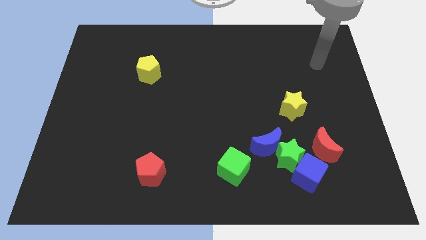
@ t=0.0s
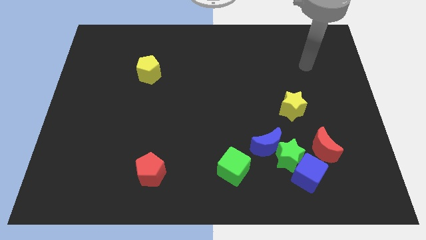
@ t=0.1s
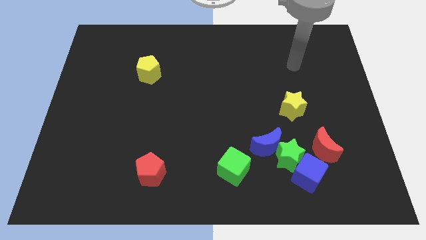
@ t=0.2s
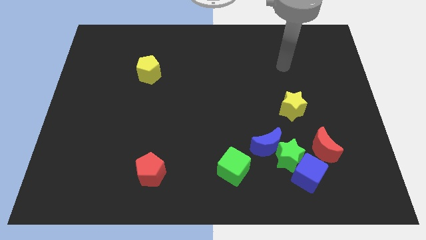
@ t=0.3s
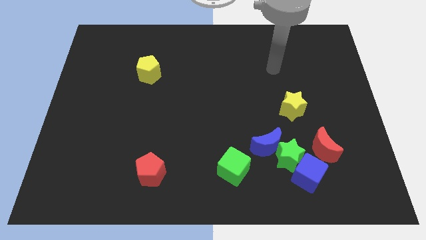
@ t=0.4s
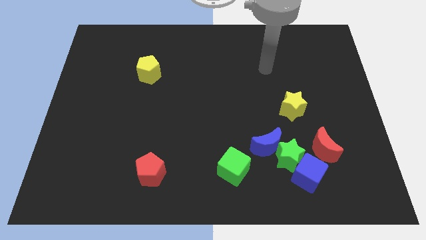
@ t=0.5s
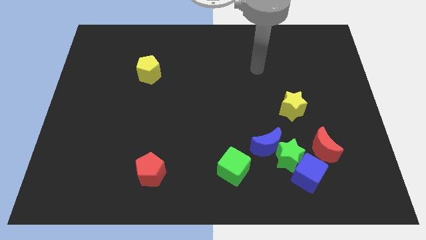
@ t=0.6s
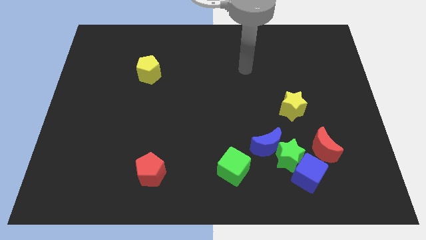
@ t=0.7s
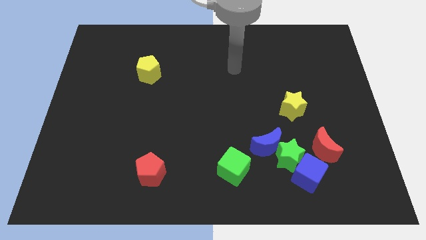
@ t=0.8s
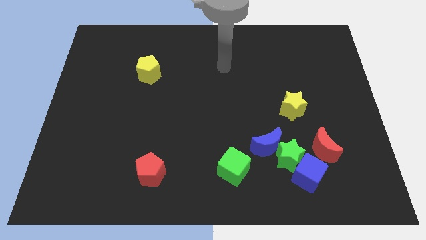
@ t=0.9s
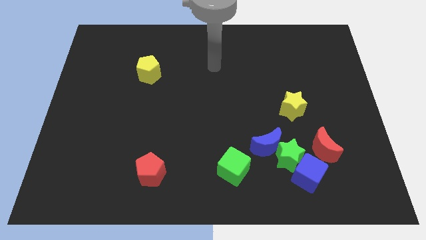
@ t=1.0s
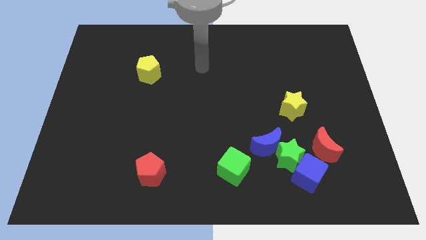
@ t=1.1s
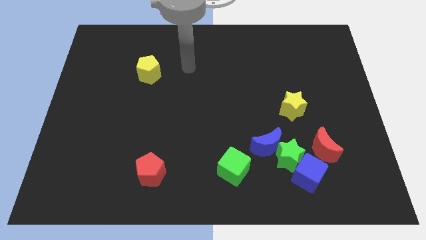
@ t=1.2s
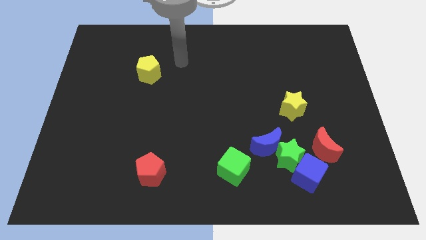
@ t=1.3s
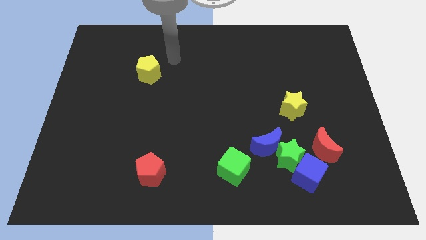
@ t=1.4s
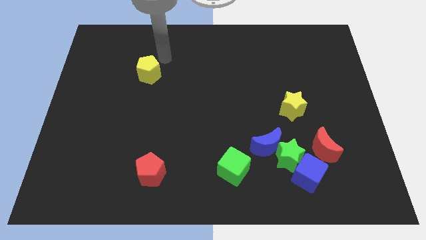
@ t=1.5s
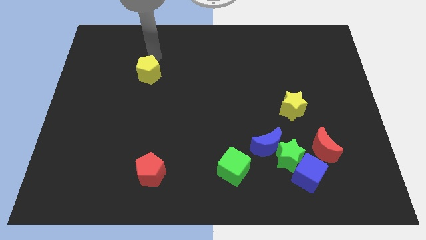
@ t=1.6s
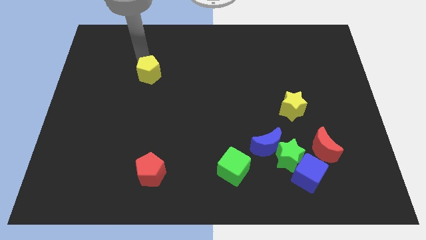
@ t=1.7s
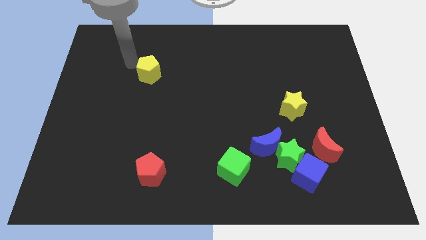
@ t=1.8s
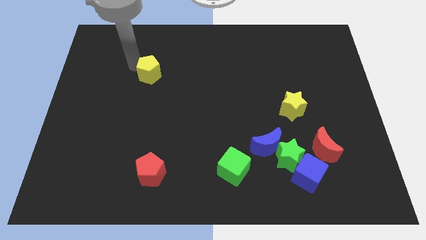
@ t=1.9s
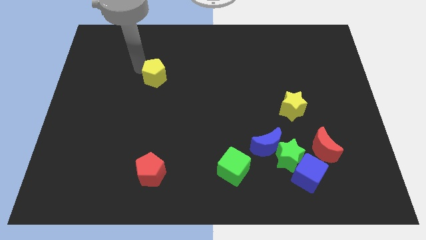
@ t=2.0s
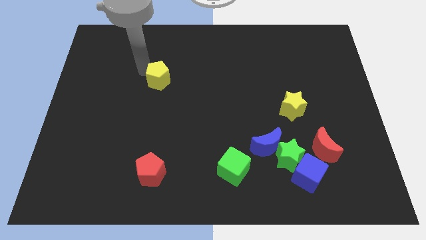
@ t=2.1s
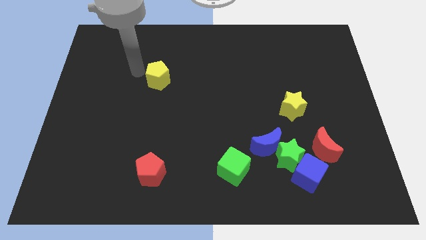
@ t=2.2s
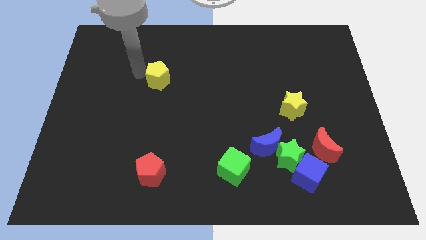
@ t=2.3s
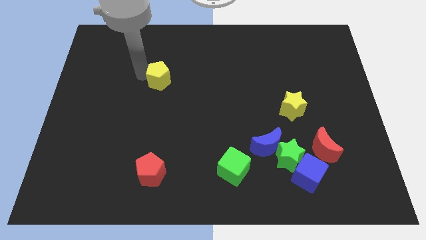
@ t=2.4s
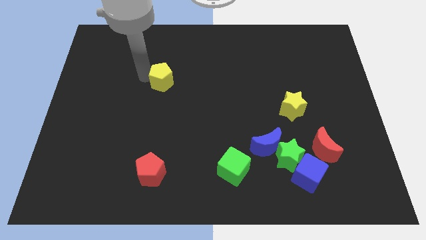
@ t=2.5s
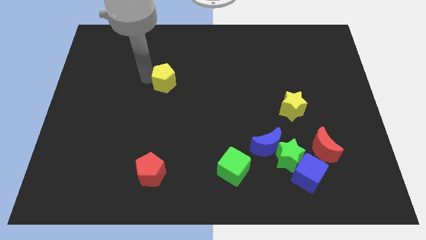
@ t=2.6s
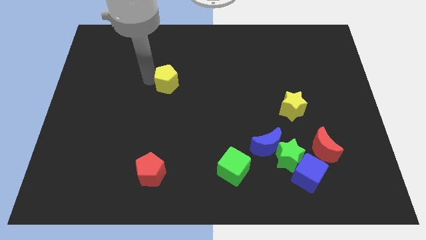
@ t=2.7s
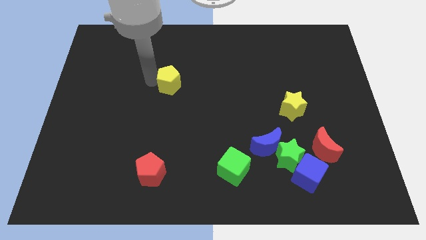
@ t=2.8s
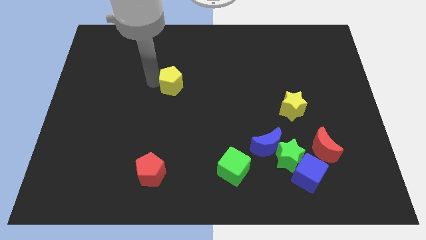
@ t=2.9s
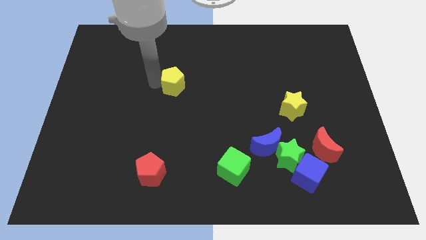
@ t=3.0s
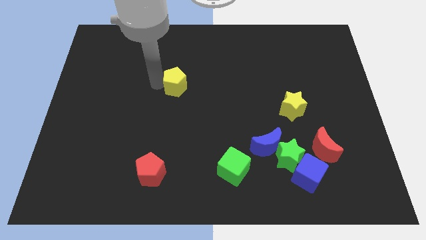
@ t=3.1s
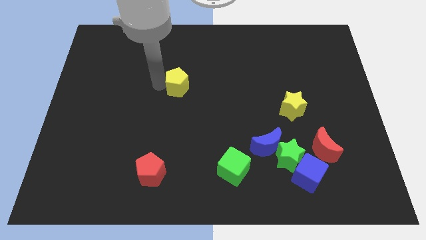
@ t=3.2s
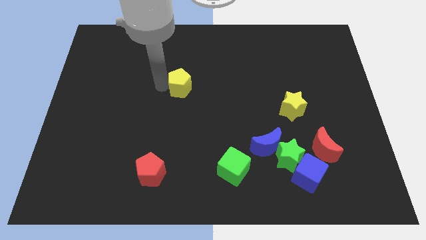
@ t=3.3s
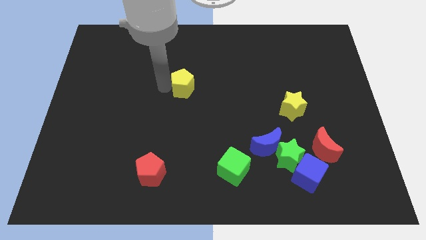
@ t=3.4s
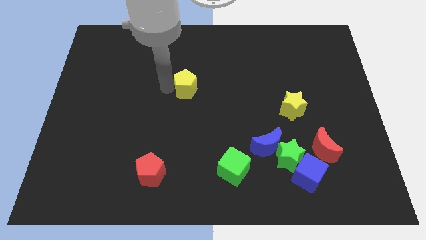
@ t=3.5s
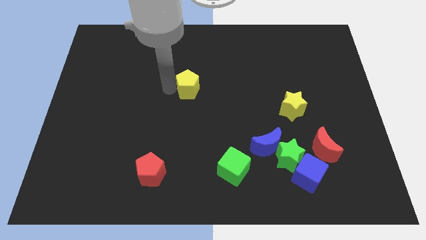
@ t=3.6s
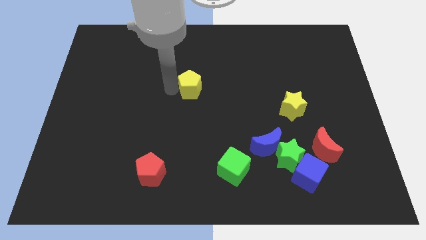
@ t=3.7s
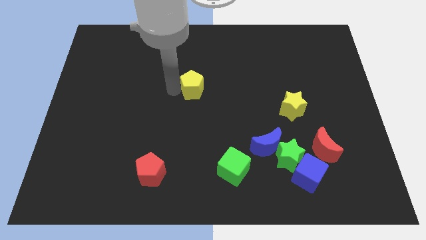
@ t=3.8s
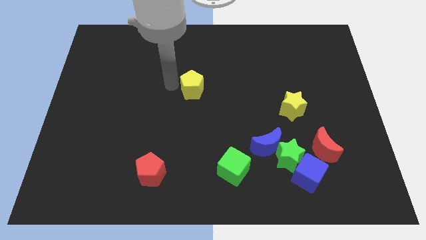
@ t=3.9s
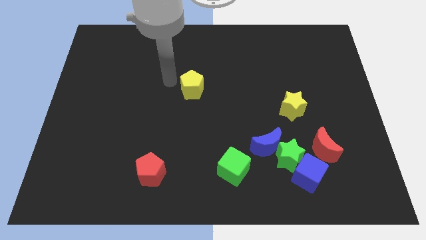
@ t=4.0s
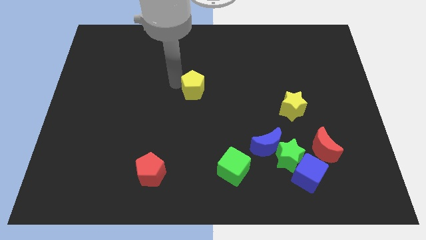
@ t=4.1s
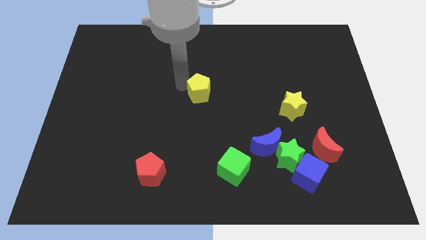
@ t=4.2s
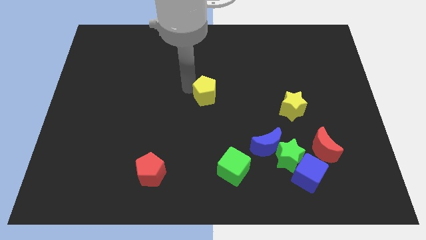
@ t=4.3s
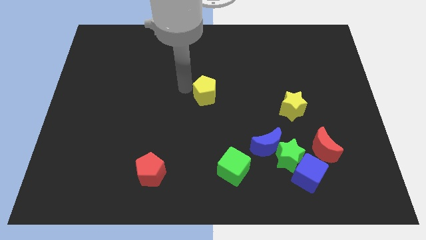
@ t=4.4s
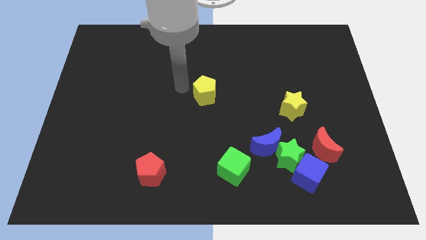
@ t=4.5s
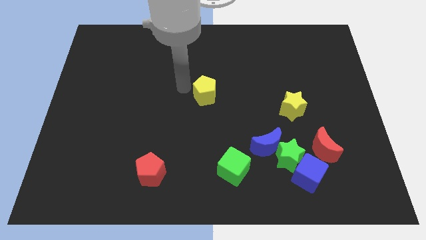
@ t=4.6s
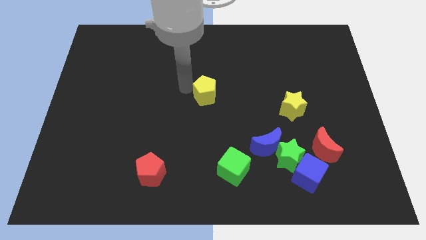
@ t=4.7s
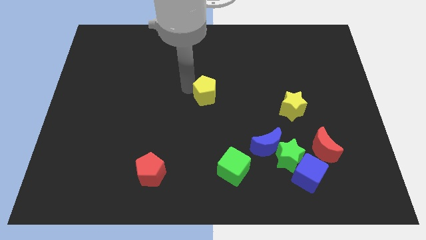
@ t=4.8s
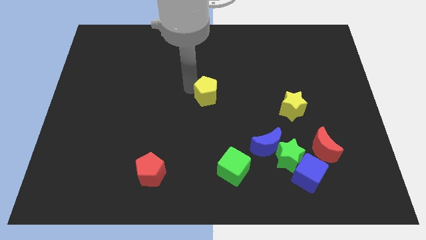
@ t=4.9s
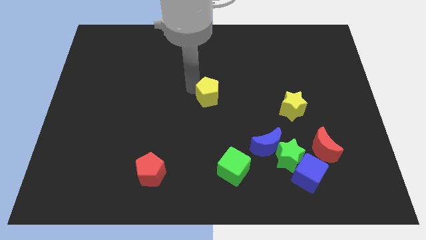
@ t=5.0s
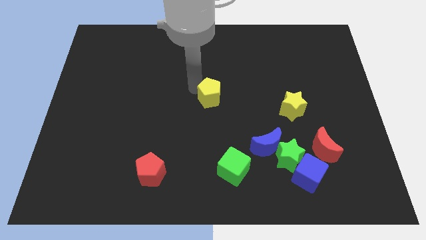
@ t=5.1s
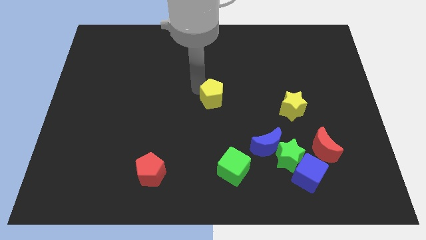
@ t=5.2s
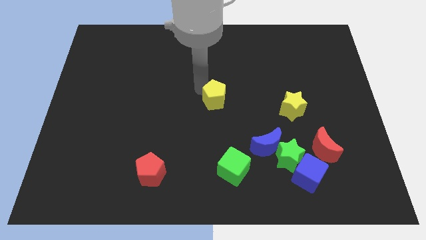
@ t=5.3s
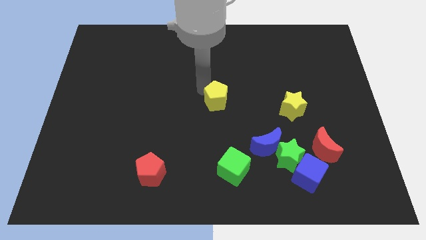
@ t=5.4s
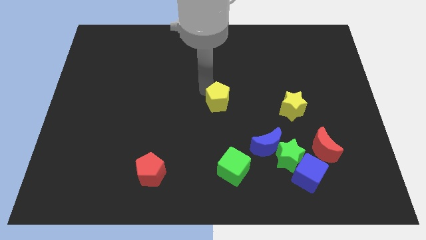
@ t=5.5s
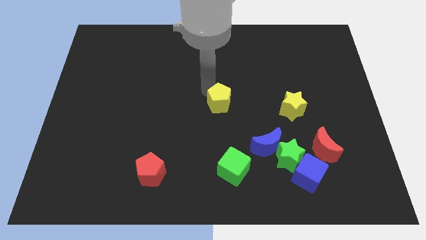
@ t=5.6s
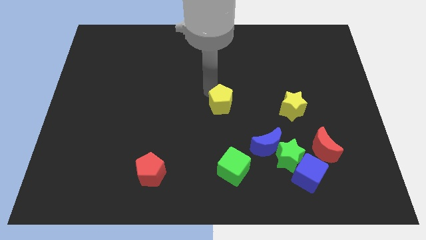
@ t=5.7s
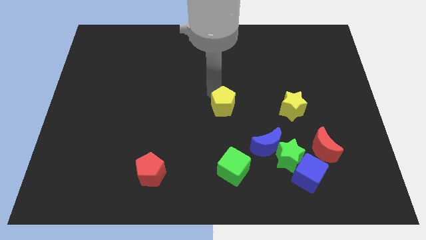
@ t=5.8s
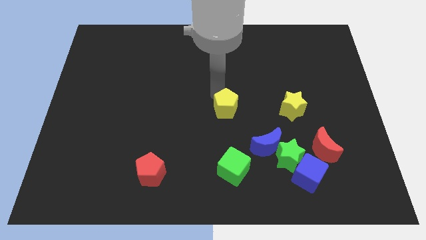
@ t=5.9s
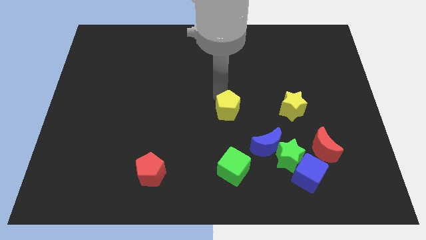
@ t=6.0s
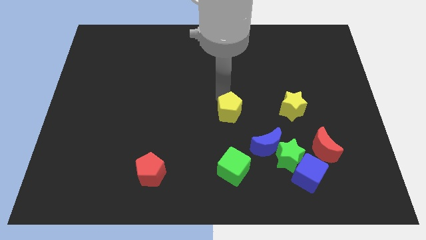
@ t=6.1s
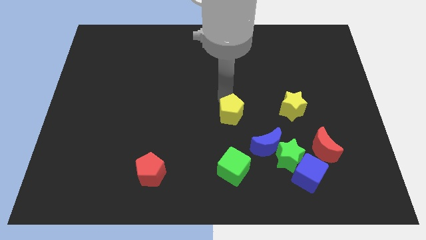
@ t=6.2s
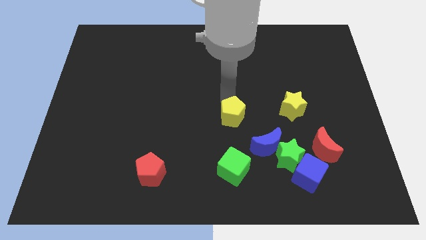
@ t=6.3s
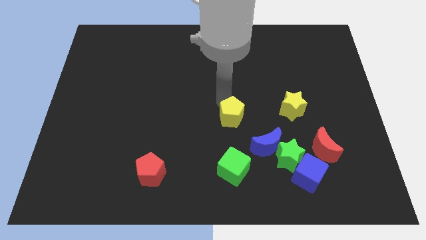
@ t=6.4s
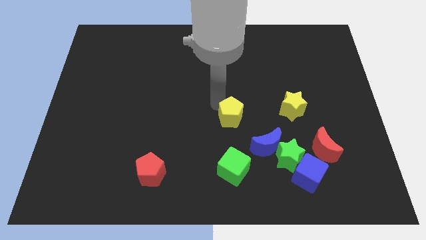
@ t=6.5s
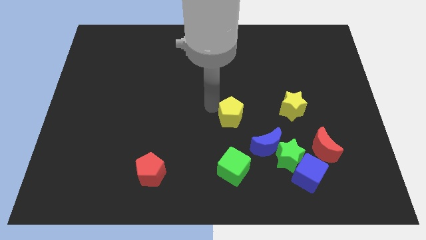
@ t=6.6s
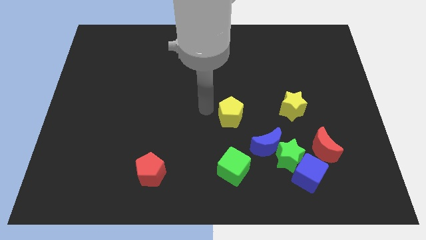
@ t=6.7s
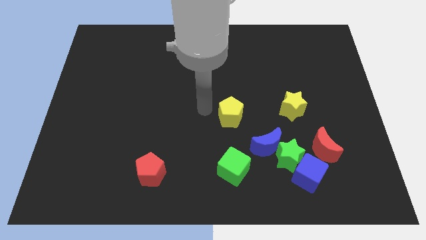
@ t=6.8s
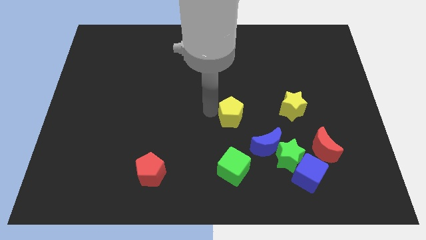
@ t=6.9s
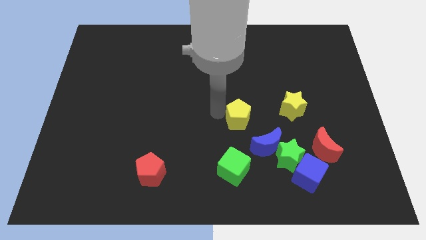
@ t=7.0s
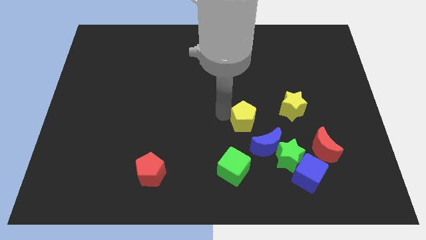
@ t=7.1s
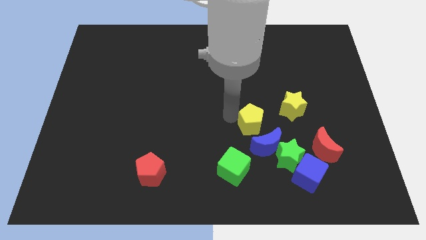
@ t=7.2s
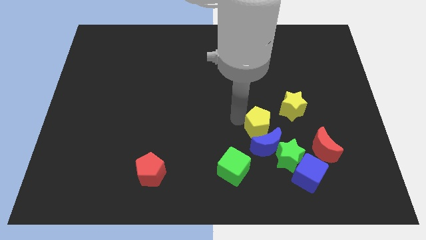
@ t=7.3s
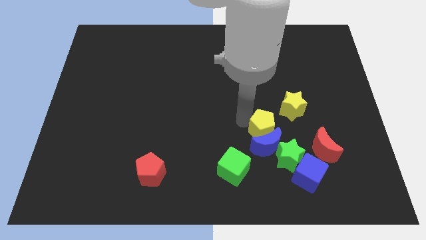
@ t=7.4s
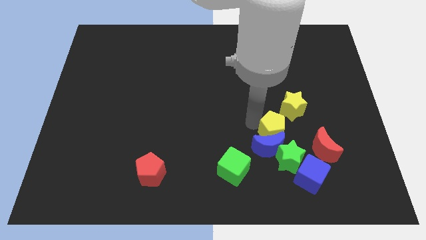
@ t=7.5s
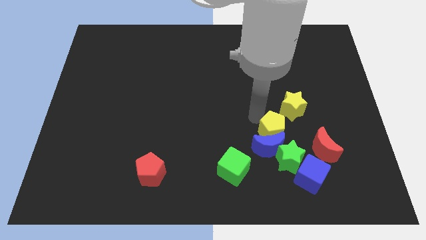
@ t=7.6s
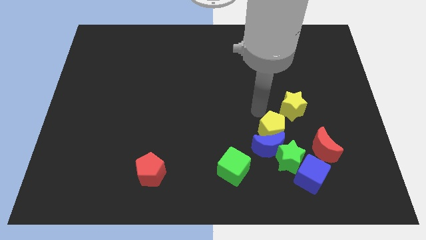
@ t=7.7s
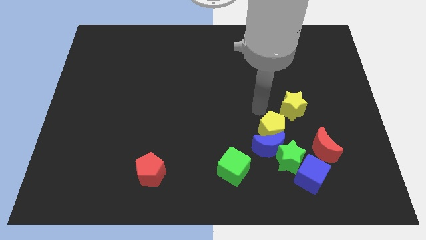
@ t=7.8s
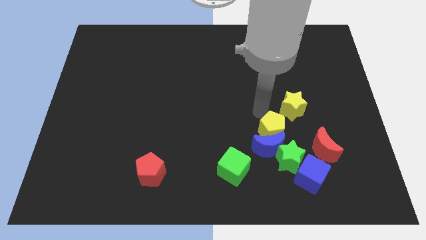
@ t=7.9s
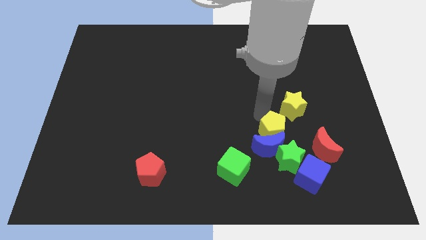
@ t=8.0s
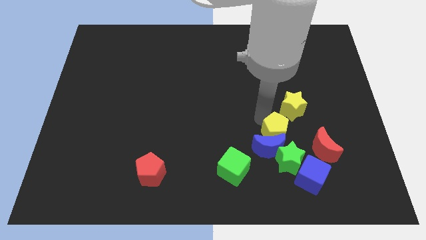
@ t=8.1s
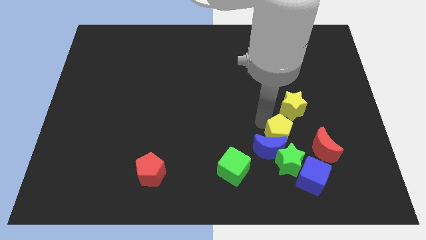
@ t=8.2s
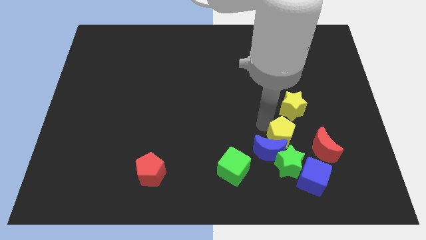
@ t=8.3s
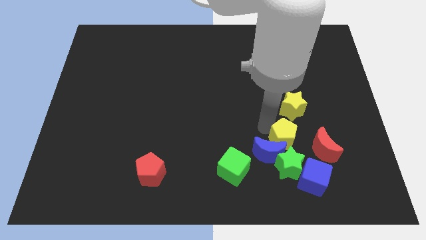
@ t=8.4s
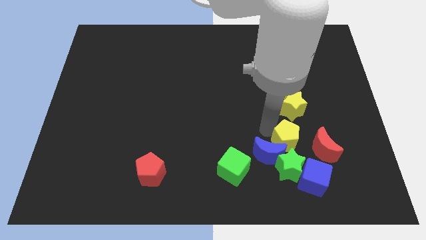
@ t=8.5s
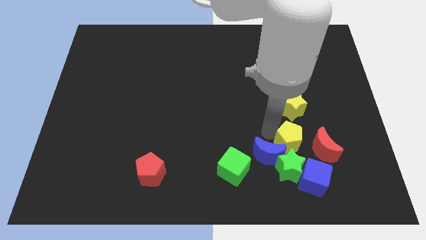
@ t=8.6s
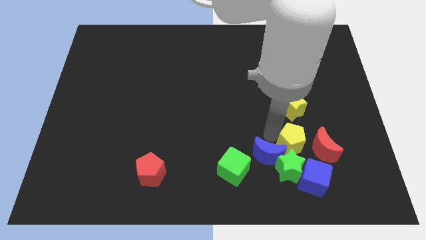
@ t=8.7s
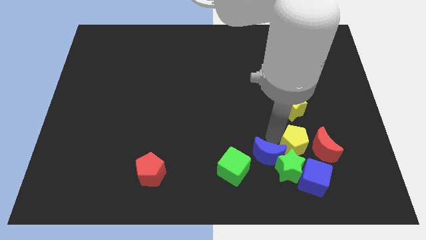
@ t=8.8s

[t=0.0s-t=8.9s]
move the yellow pentagon close to the green star
